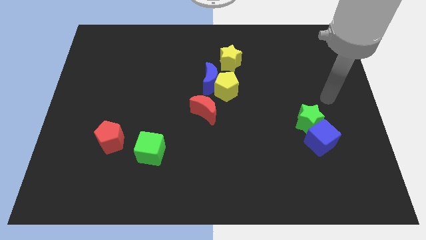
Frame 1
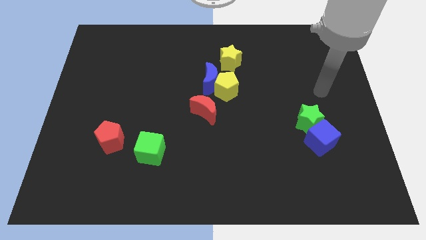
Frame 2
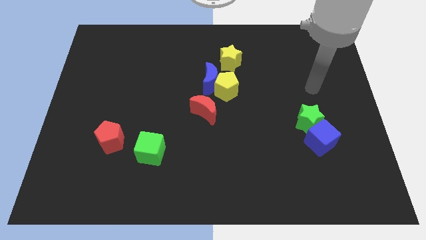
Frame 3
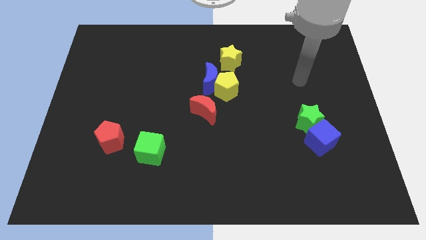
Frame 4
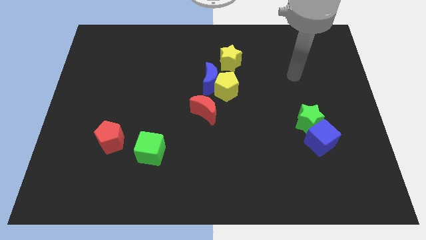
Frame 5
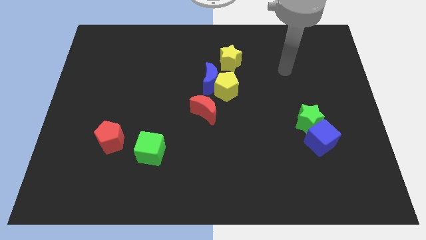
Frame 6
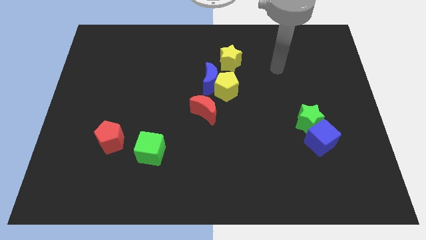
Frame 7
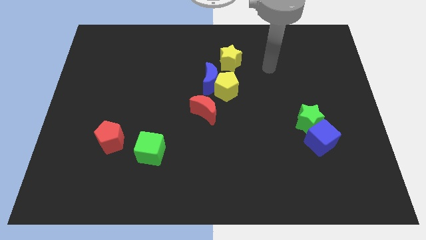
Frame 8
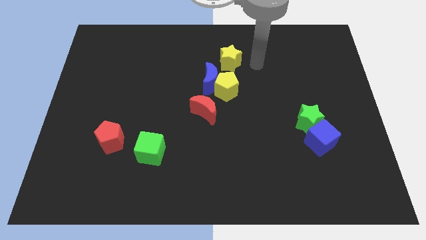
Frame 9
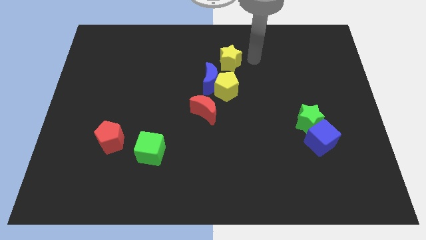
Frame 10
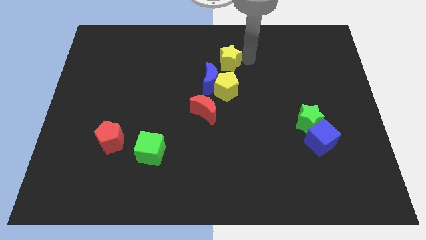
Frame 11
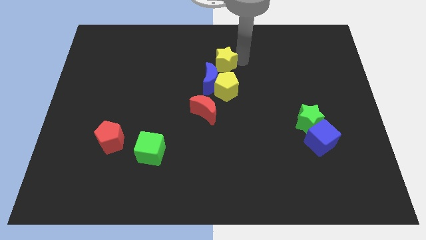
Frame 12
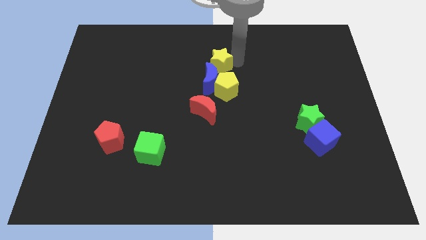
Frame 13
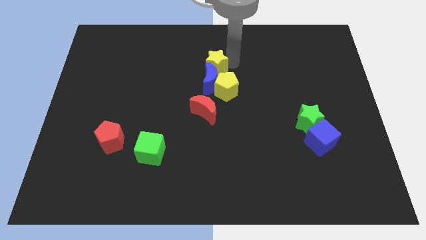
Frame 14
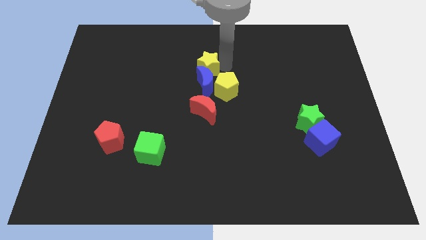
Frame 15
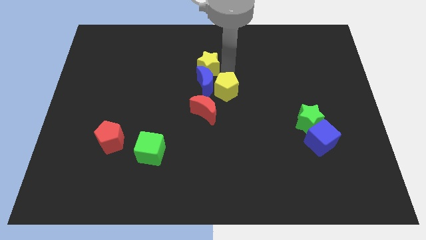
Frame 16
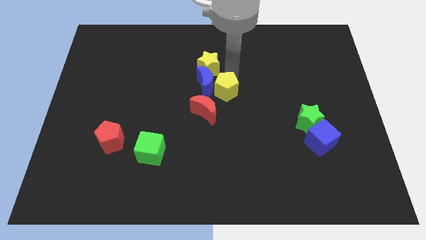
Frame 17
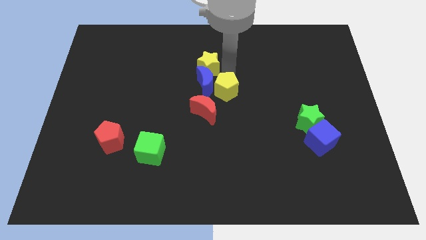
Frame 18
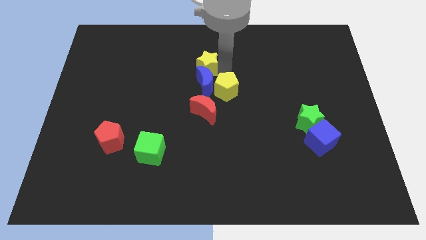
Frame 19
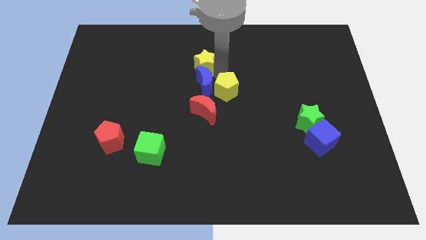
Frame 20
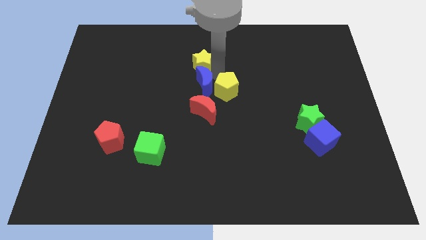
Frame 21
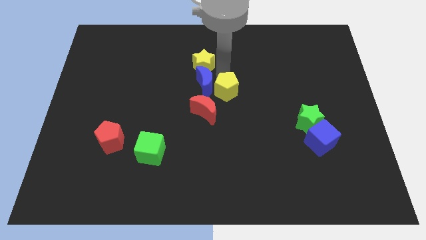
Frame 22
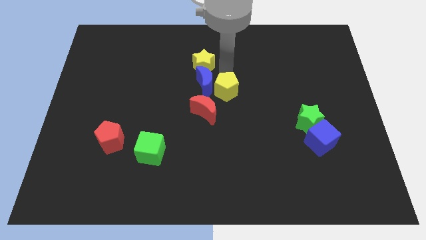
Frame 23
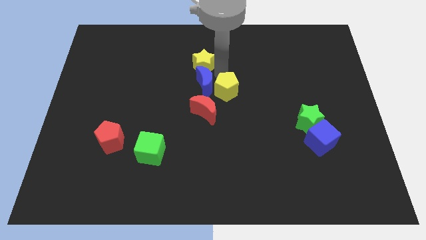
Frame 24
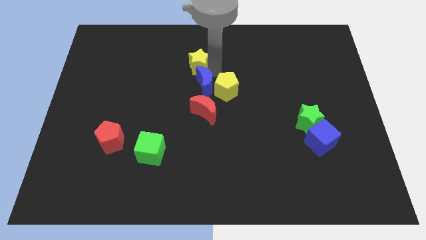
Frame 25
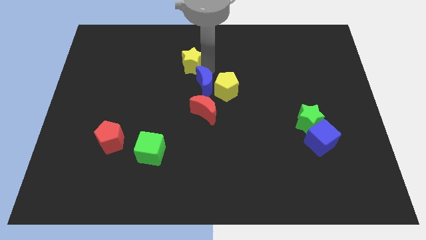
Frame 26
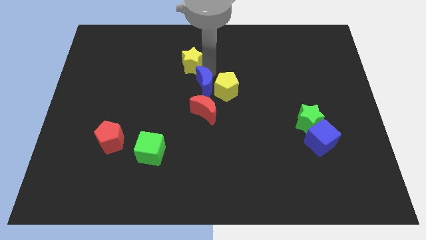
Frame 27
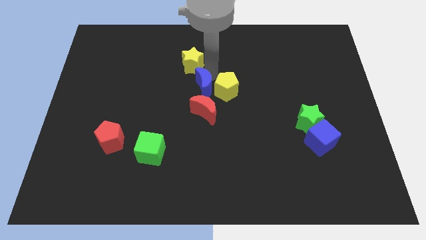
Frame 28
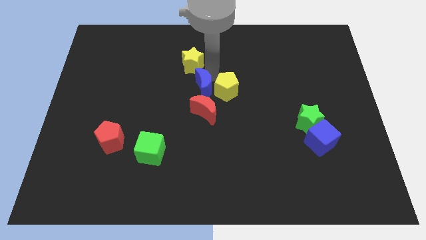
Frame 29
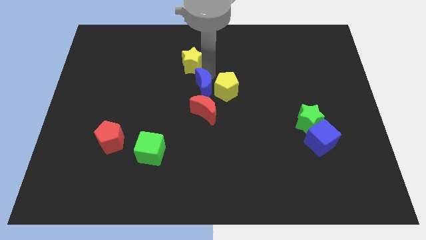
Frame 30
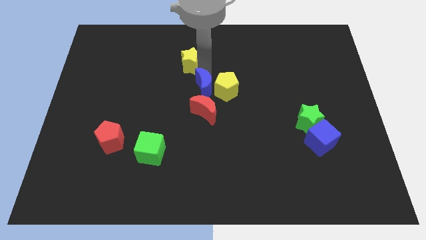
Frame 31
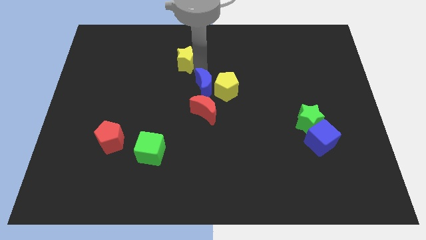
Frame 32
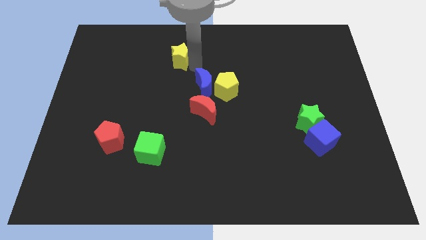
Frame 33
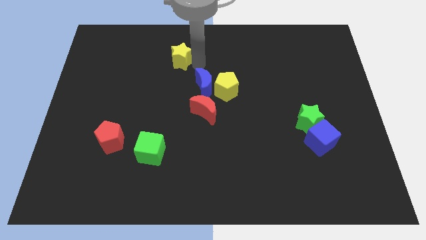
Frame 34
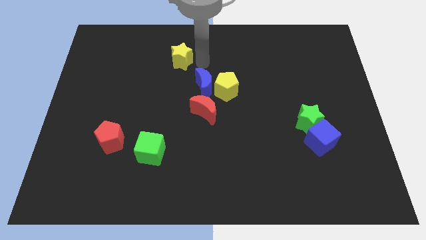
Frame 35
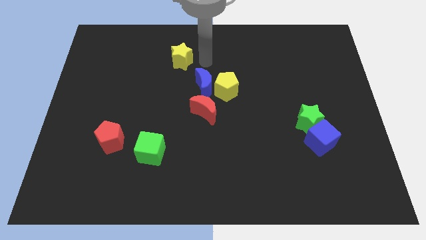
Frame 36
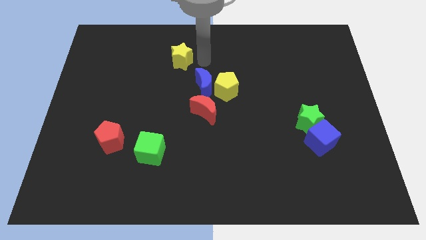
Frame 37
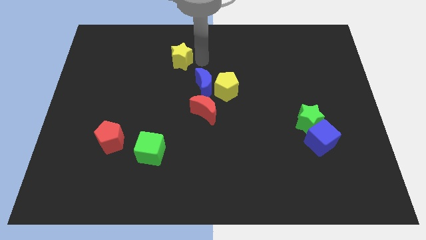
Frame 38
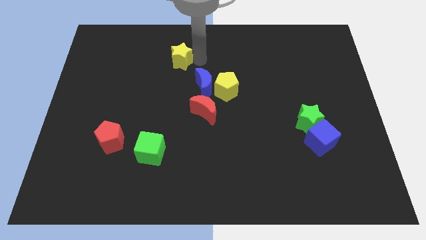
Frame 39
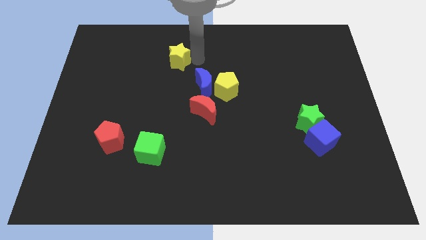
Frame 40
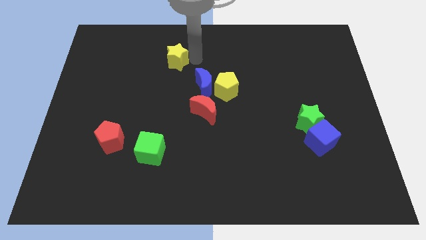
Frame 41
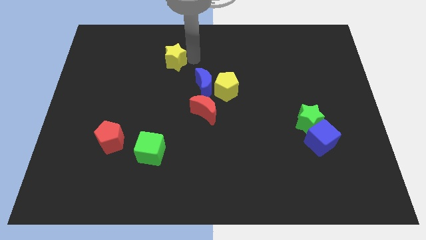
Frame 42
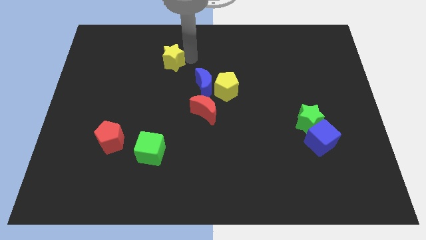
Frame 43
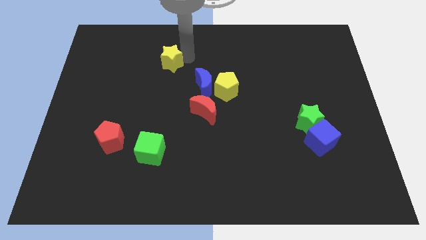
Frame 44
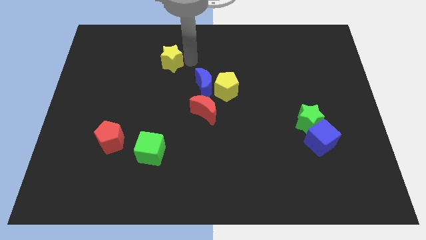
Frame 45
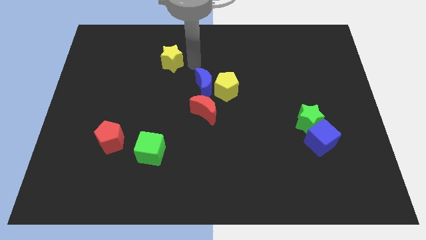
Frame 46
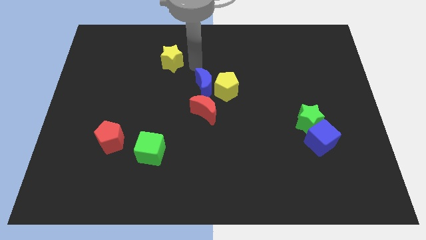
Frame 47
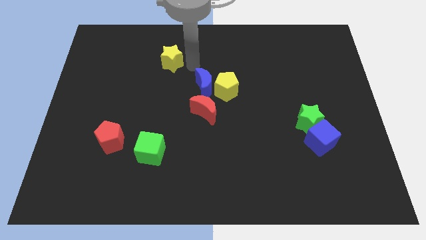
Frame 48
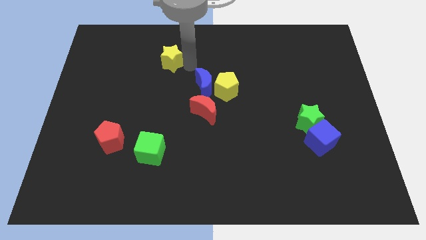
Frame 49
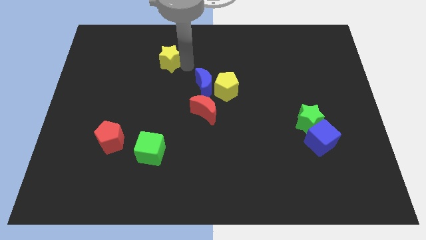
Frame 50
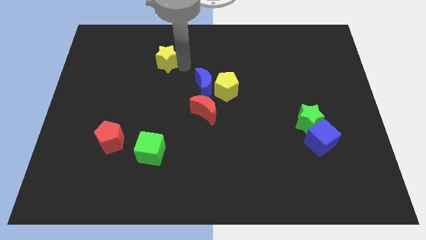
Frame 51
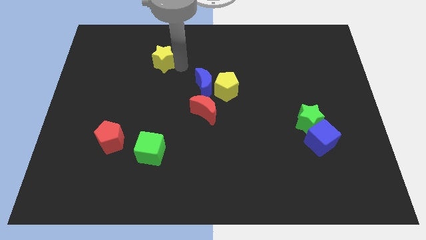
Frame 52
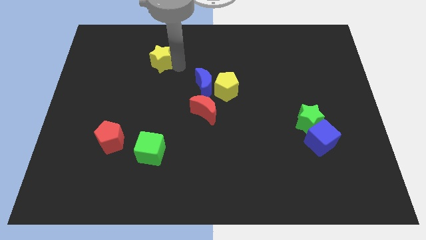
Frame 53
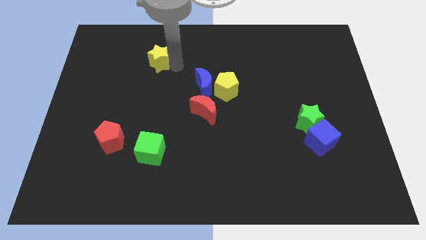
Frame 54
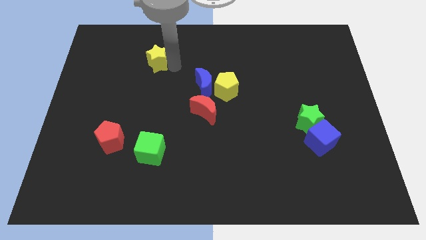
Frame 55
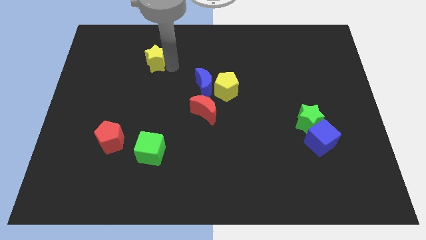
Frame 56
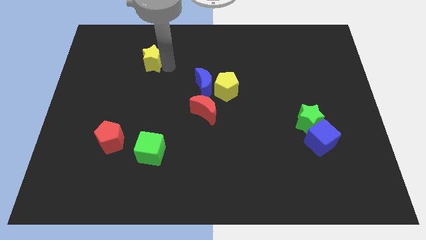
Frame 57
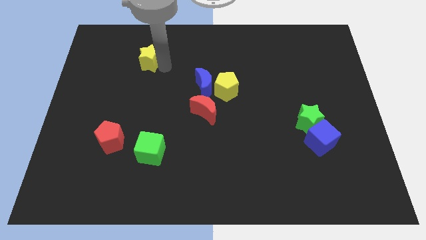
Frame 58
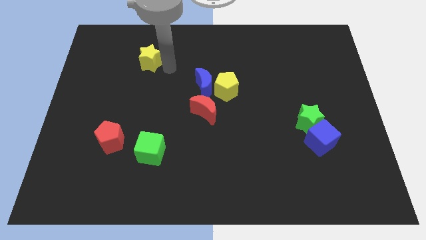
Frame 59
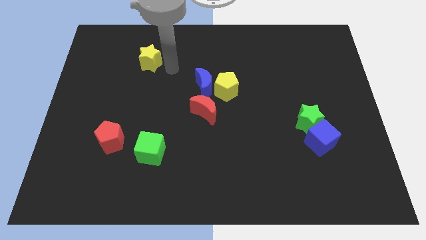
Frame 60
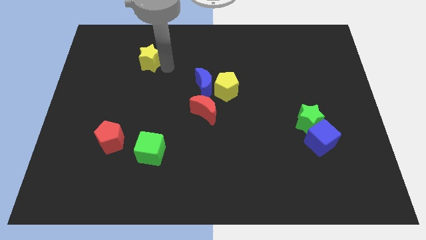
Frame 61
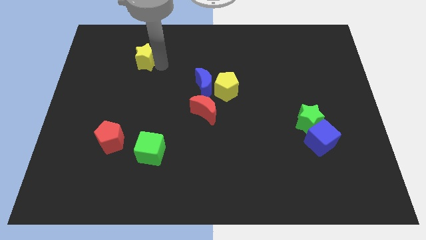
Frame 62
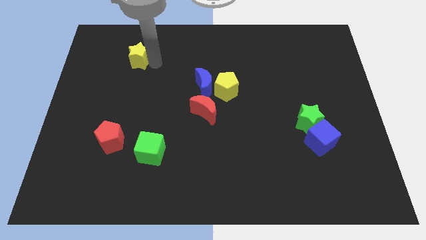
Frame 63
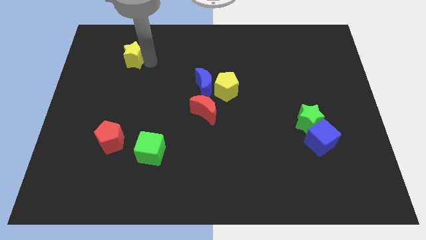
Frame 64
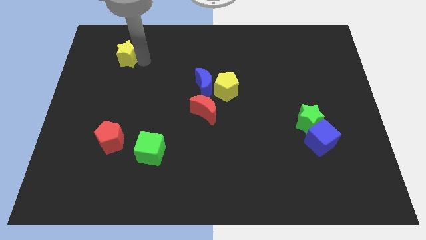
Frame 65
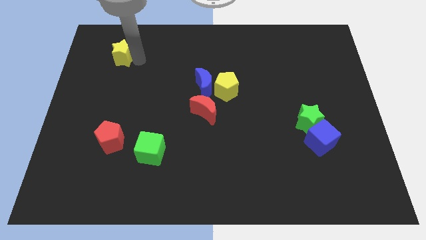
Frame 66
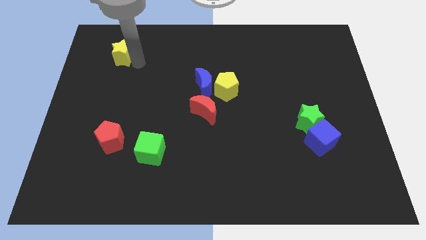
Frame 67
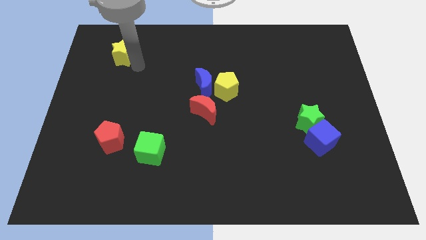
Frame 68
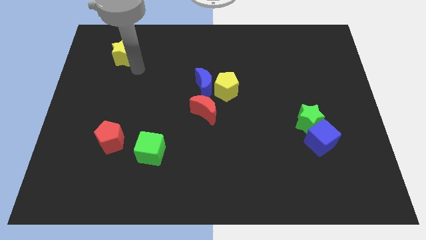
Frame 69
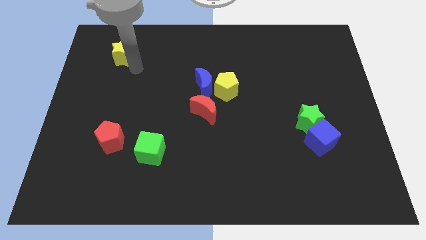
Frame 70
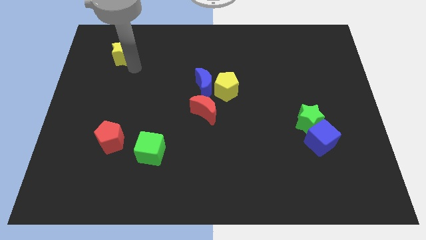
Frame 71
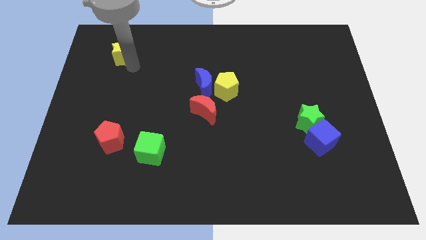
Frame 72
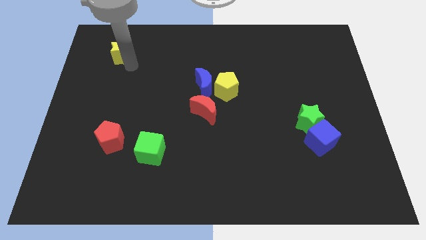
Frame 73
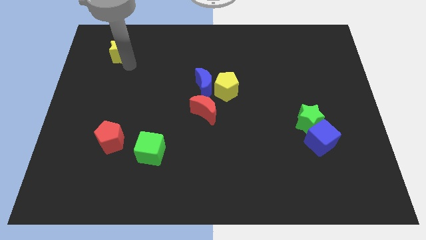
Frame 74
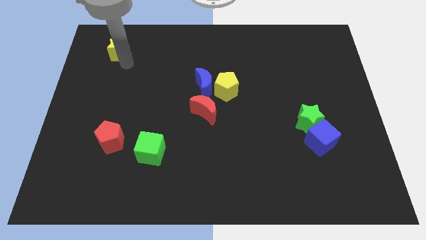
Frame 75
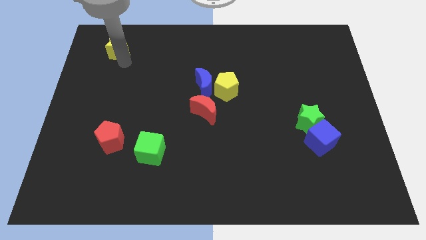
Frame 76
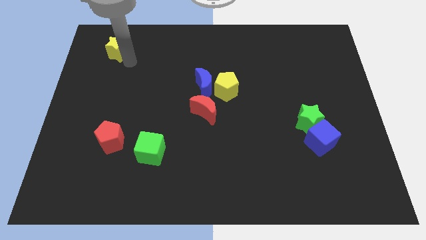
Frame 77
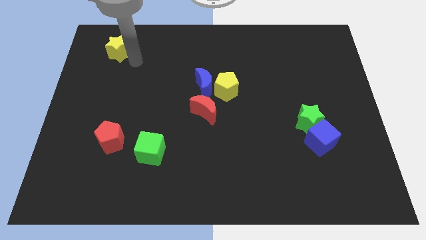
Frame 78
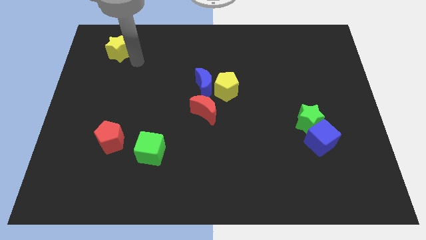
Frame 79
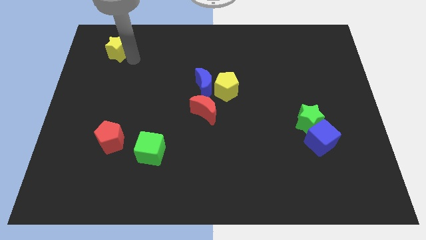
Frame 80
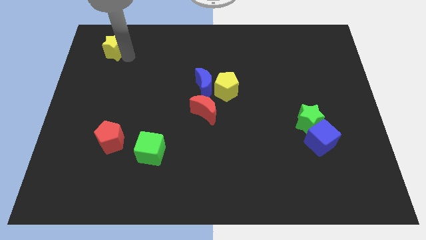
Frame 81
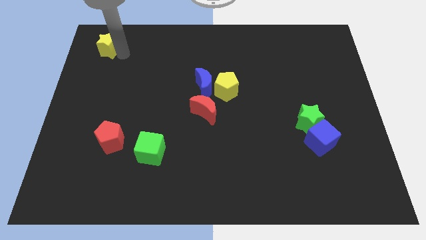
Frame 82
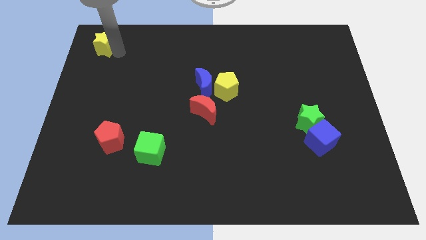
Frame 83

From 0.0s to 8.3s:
slide the yellow star to the top left corner
